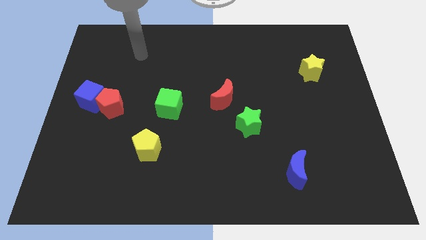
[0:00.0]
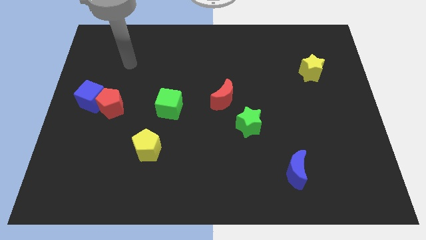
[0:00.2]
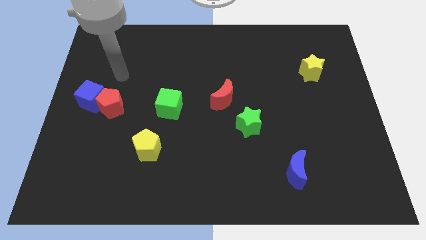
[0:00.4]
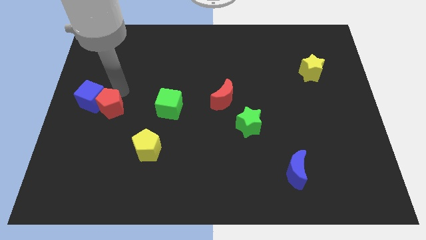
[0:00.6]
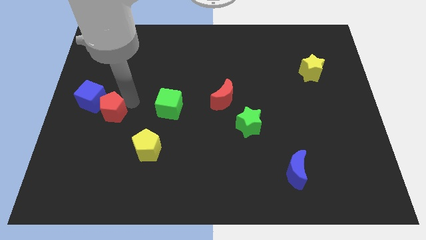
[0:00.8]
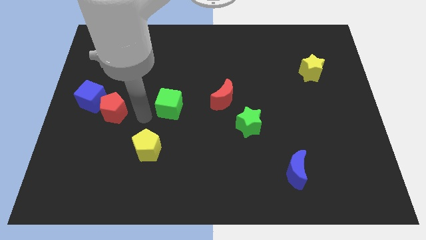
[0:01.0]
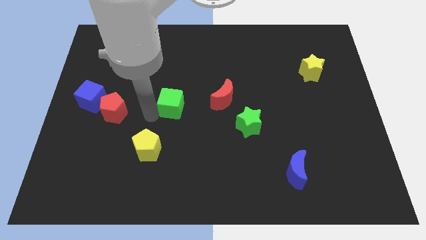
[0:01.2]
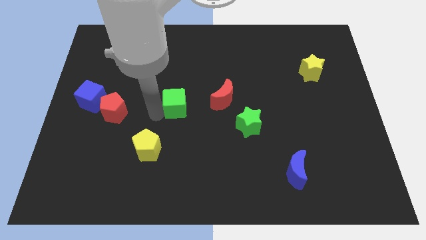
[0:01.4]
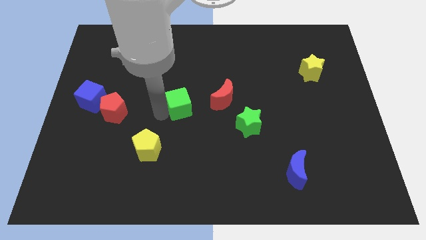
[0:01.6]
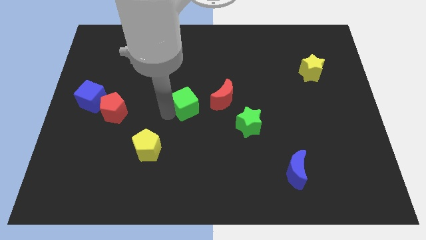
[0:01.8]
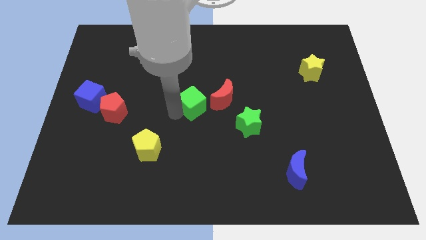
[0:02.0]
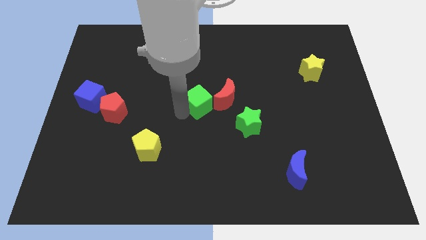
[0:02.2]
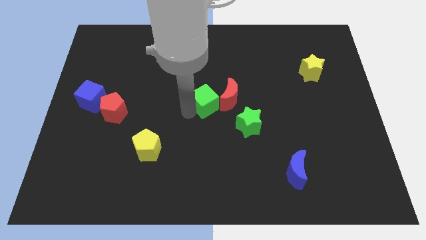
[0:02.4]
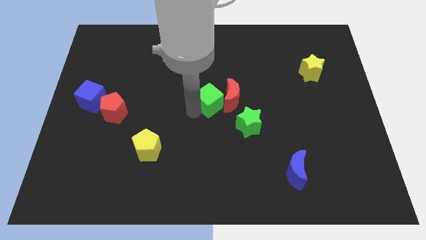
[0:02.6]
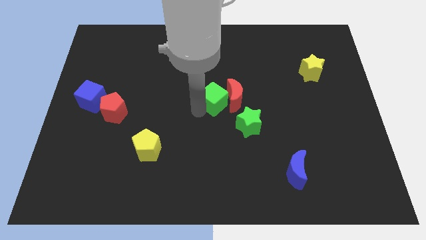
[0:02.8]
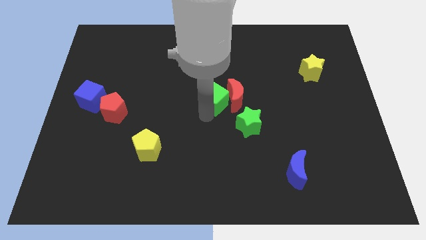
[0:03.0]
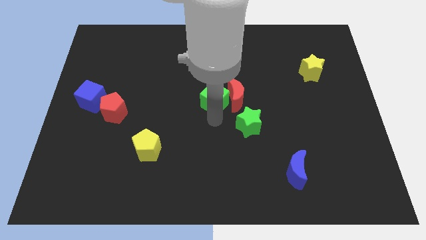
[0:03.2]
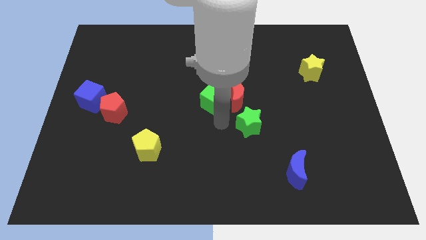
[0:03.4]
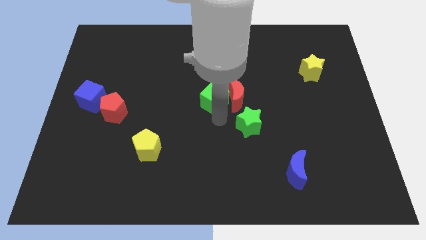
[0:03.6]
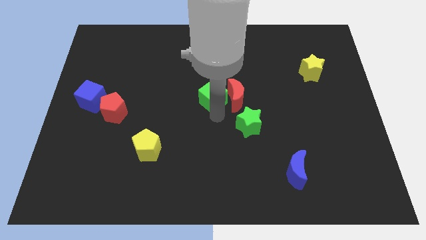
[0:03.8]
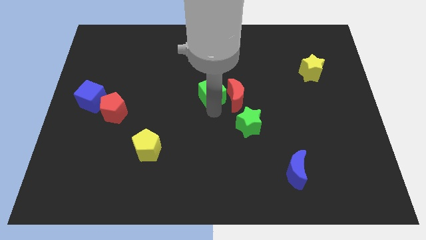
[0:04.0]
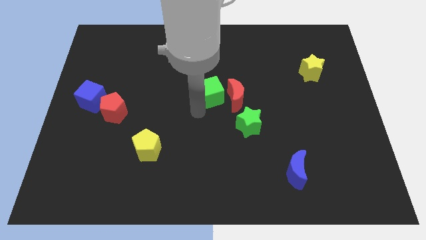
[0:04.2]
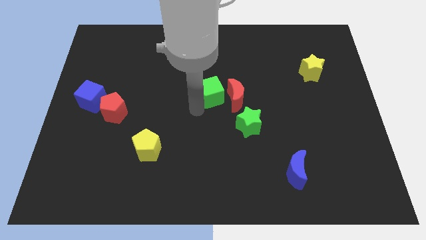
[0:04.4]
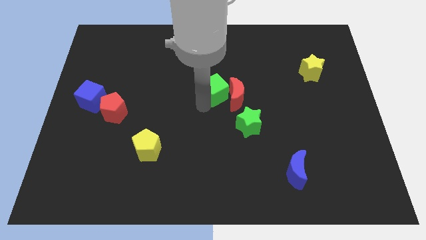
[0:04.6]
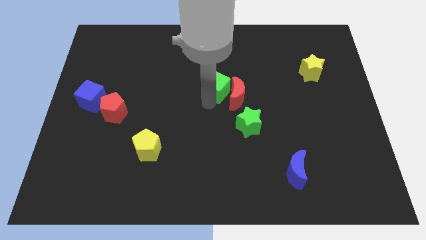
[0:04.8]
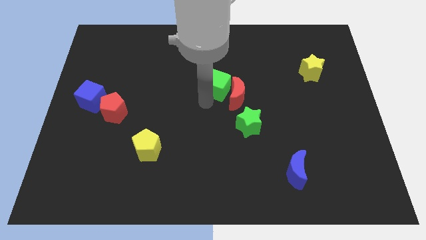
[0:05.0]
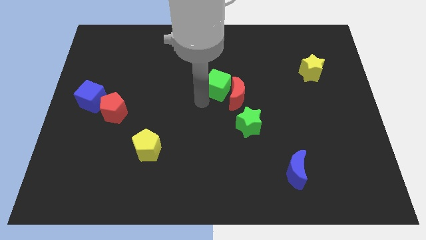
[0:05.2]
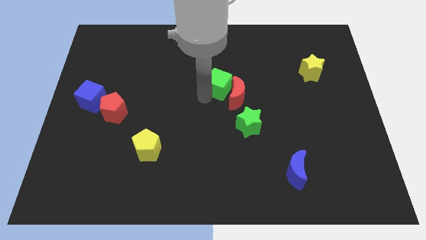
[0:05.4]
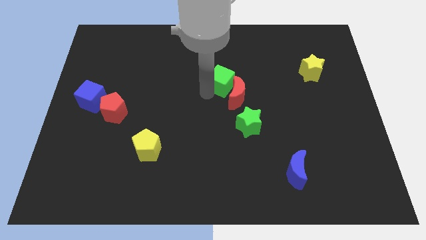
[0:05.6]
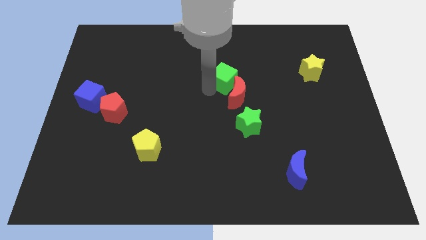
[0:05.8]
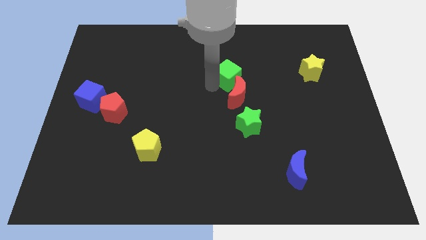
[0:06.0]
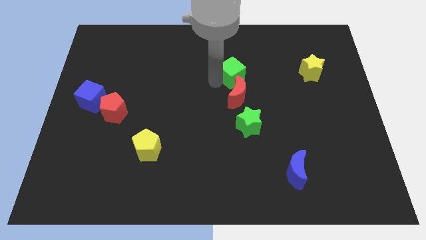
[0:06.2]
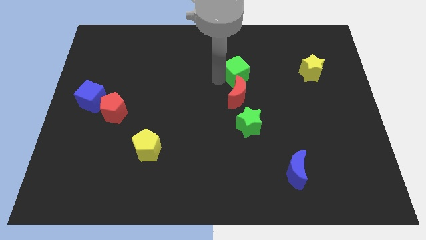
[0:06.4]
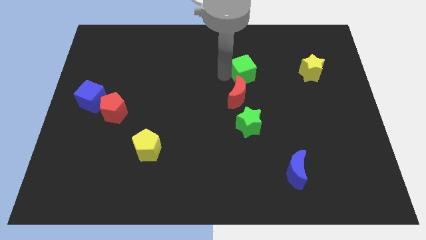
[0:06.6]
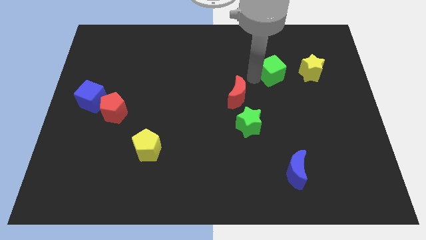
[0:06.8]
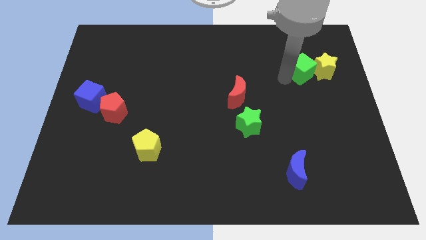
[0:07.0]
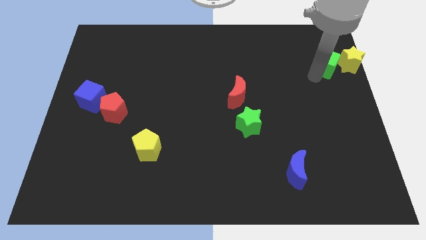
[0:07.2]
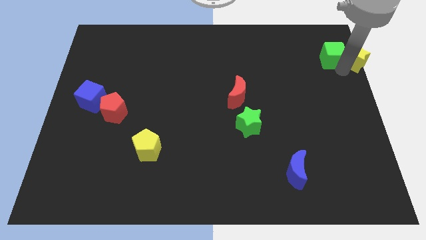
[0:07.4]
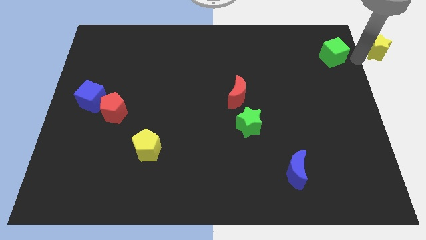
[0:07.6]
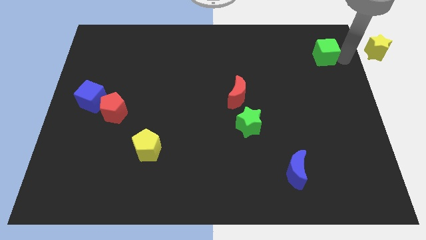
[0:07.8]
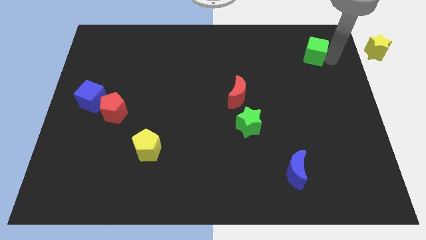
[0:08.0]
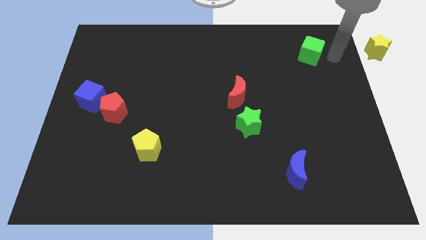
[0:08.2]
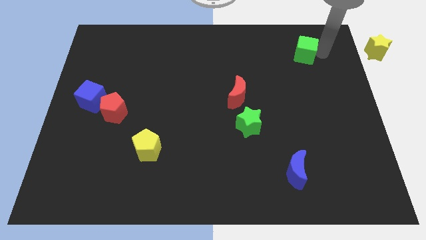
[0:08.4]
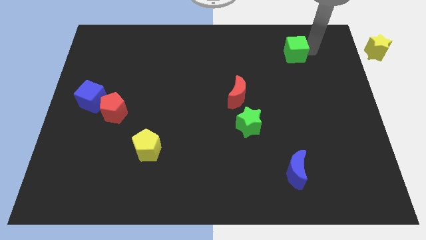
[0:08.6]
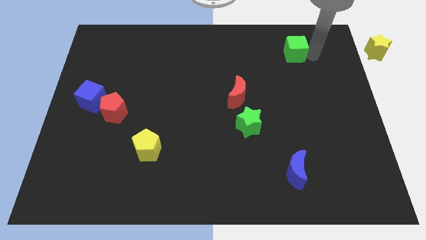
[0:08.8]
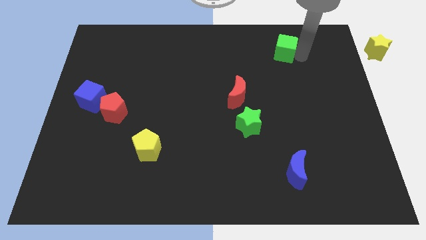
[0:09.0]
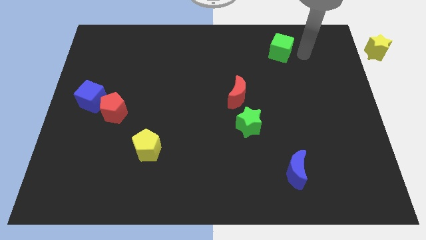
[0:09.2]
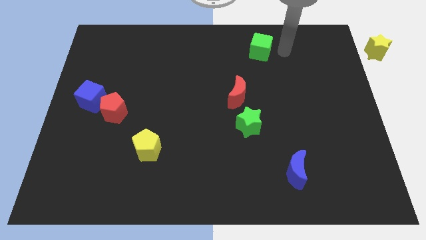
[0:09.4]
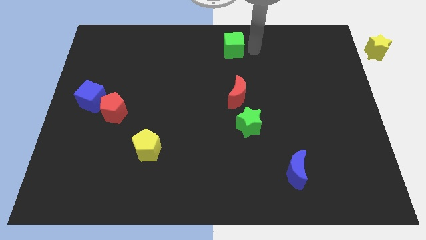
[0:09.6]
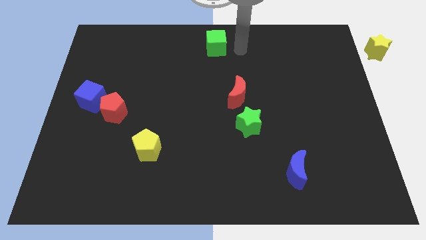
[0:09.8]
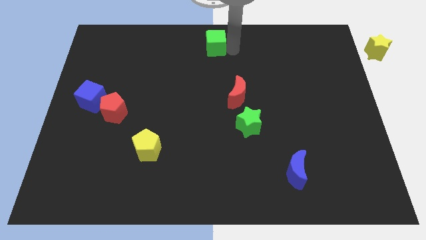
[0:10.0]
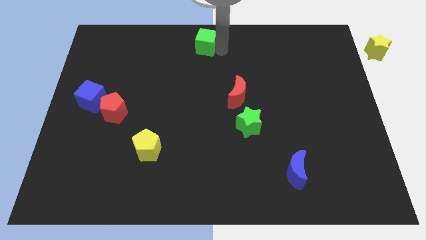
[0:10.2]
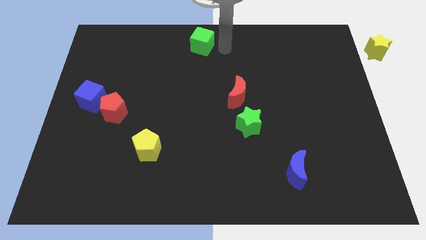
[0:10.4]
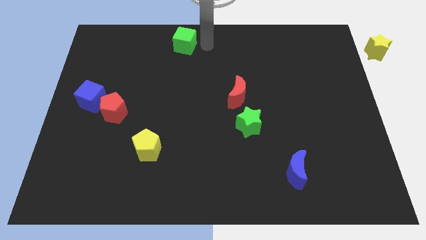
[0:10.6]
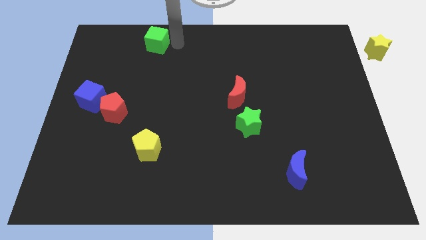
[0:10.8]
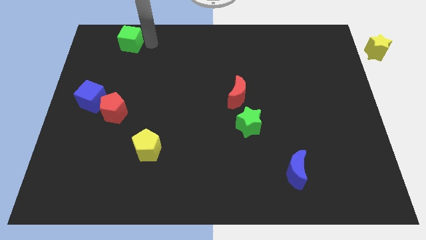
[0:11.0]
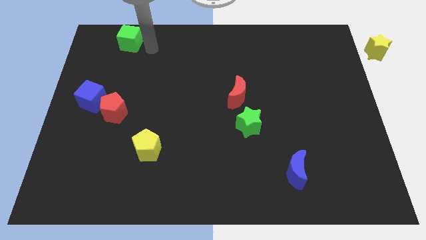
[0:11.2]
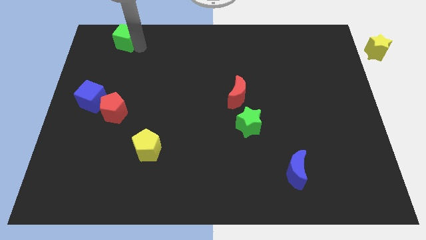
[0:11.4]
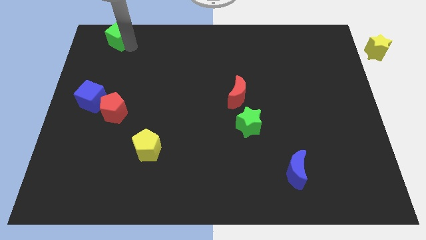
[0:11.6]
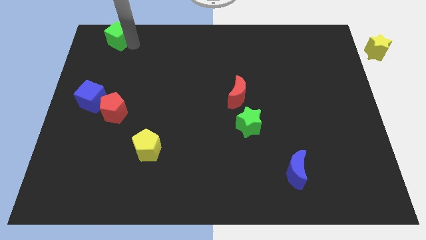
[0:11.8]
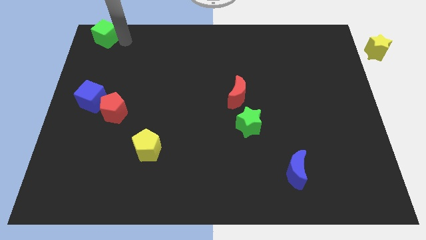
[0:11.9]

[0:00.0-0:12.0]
put the green cube to the upper left corner

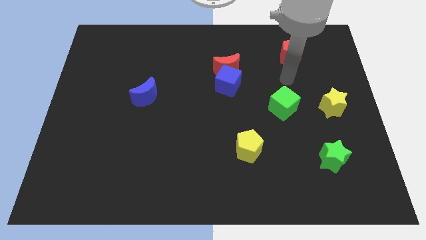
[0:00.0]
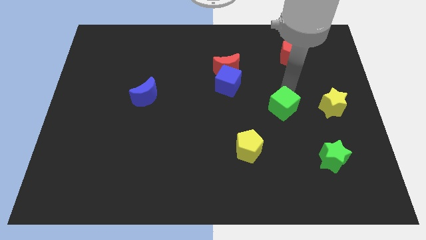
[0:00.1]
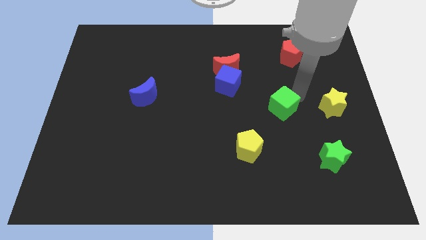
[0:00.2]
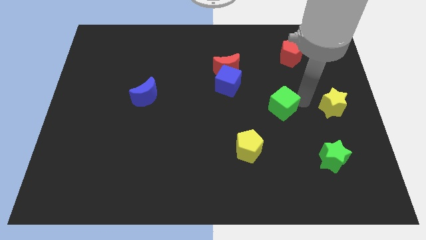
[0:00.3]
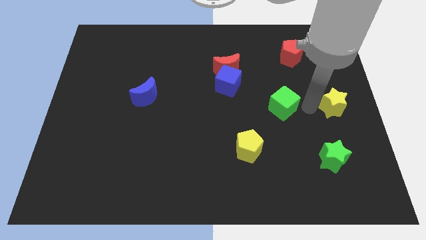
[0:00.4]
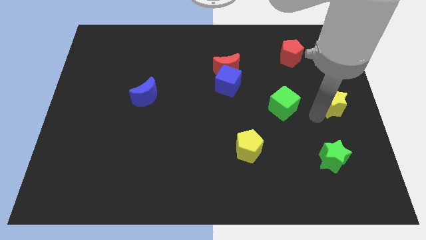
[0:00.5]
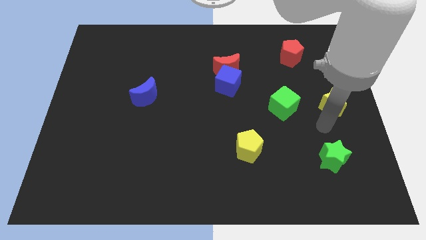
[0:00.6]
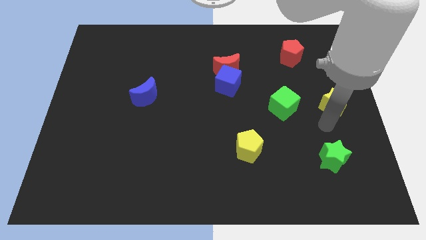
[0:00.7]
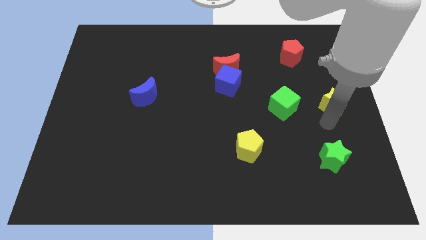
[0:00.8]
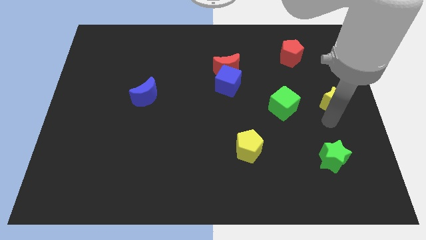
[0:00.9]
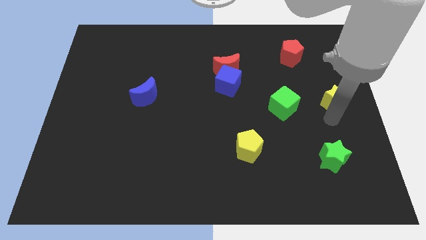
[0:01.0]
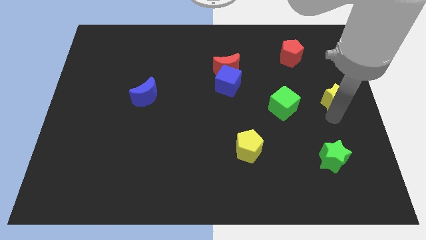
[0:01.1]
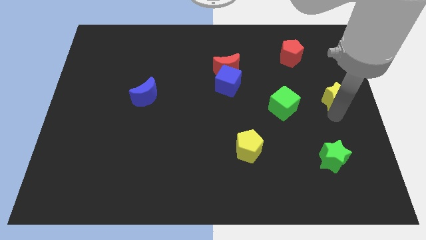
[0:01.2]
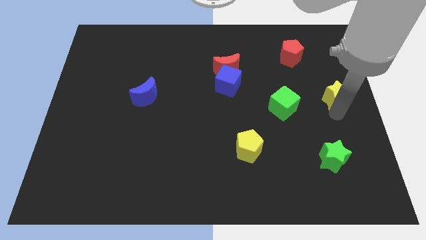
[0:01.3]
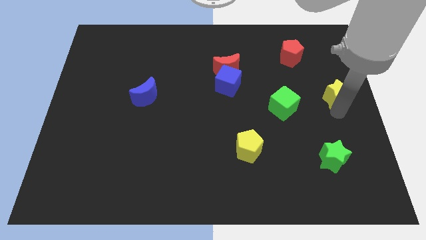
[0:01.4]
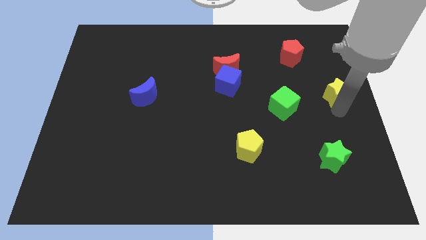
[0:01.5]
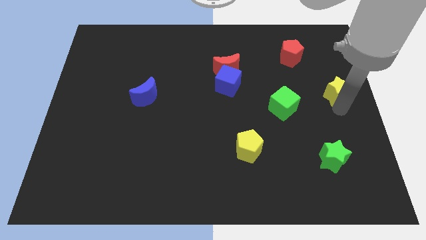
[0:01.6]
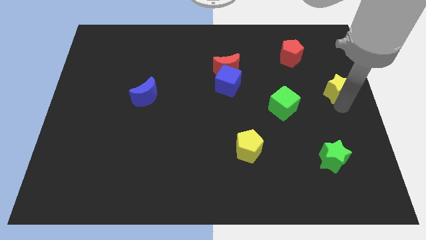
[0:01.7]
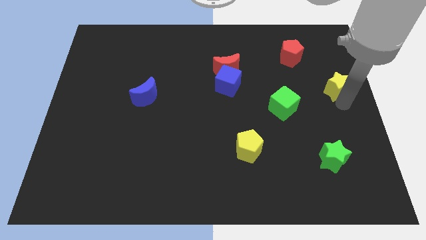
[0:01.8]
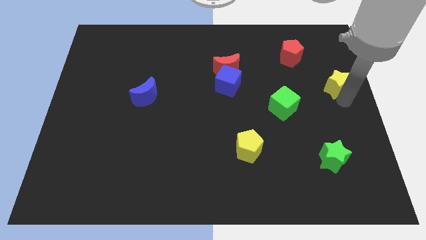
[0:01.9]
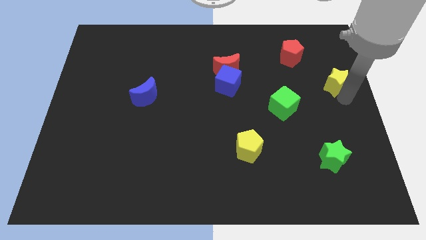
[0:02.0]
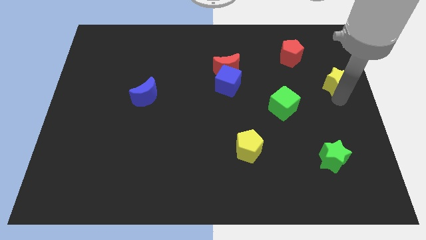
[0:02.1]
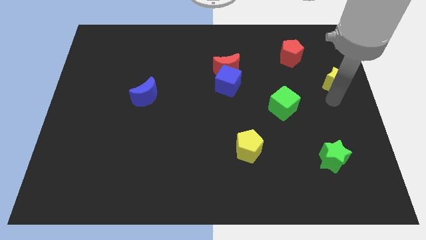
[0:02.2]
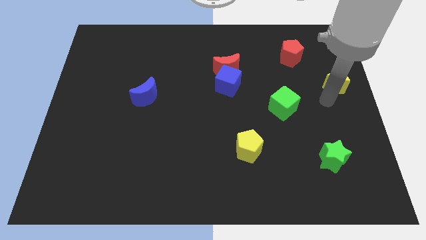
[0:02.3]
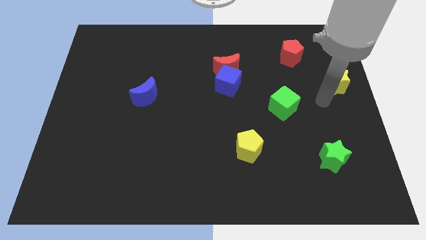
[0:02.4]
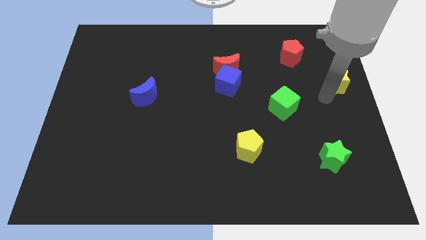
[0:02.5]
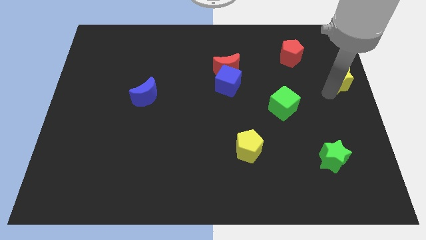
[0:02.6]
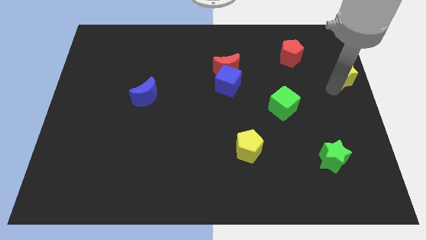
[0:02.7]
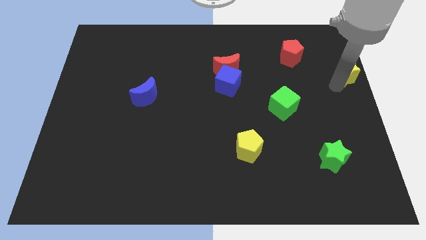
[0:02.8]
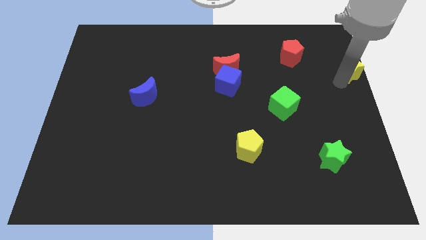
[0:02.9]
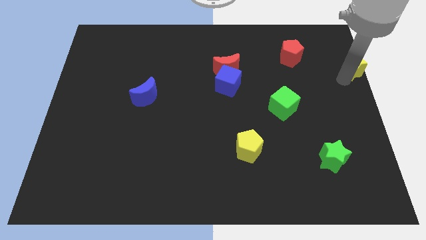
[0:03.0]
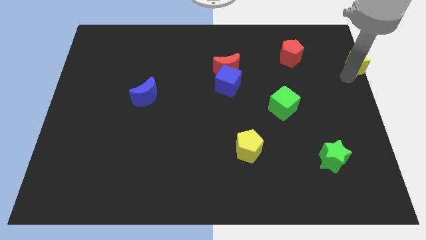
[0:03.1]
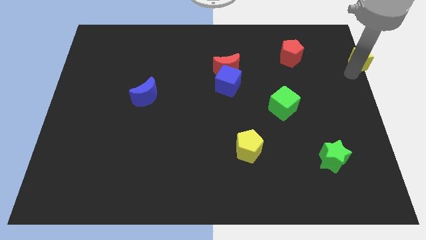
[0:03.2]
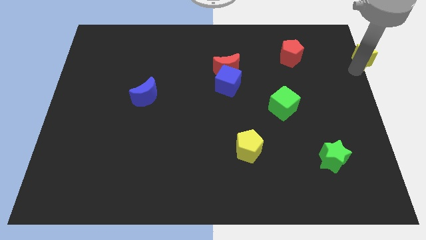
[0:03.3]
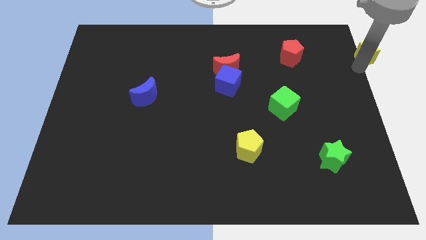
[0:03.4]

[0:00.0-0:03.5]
push the yellow star to the top right
